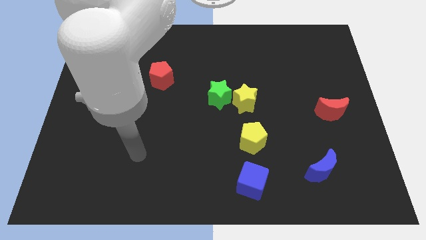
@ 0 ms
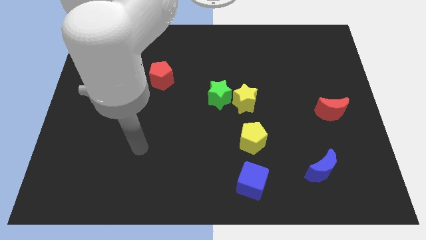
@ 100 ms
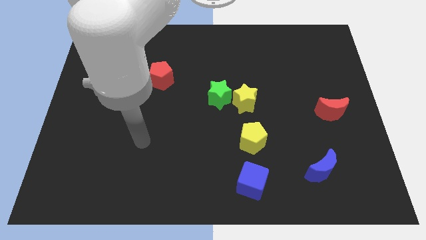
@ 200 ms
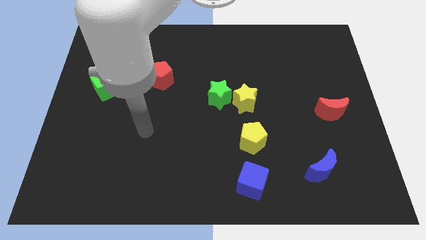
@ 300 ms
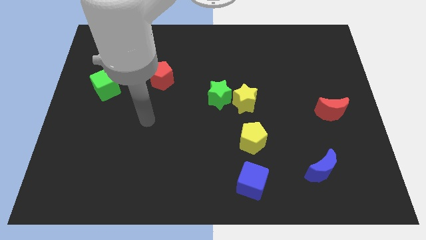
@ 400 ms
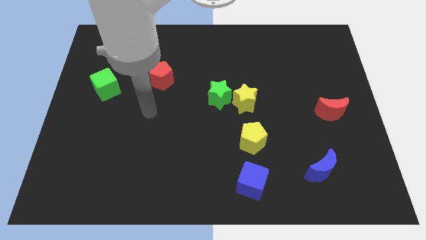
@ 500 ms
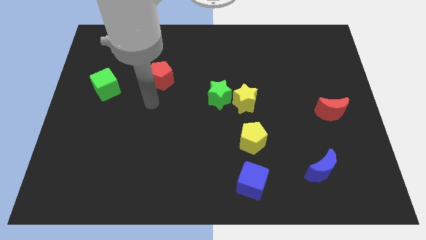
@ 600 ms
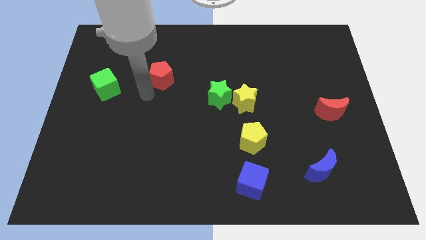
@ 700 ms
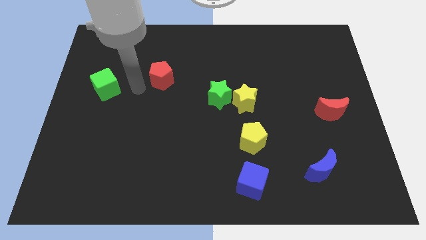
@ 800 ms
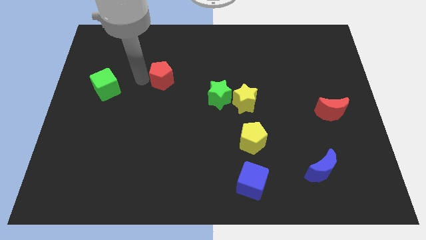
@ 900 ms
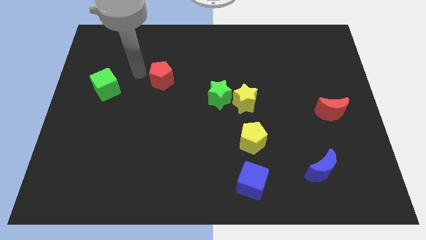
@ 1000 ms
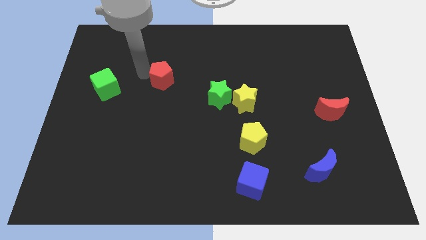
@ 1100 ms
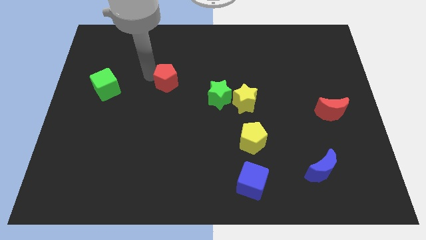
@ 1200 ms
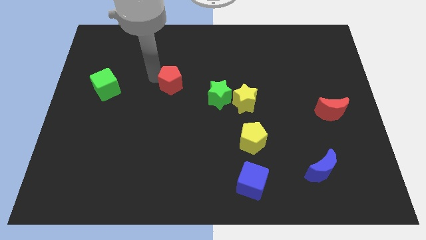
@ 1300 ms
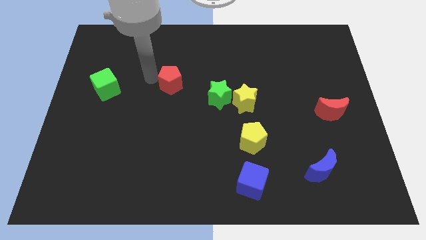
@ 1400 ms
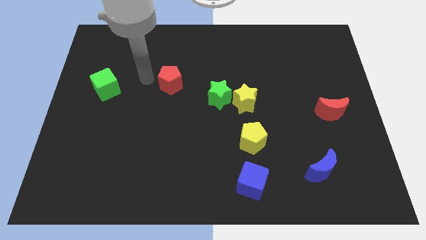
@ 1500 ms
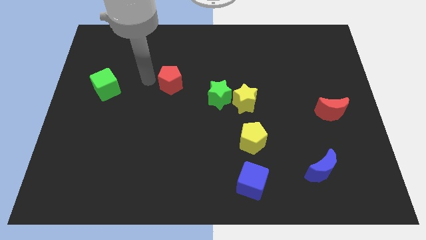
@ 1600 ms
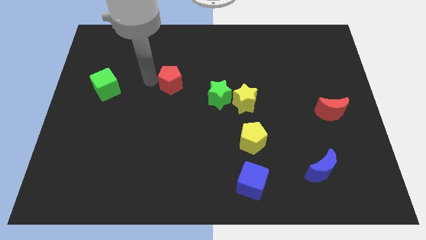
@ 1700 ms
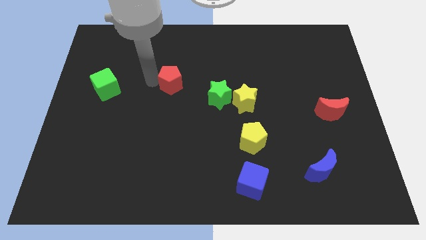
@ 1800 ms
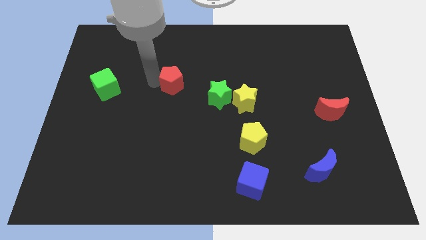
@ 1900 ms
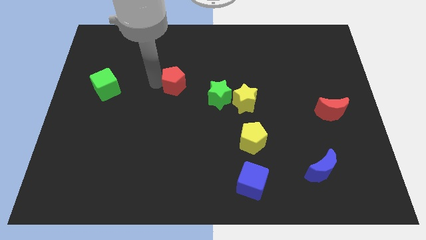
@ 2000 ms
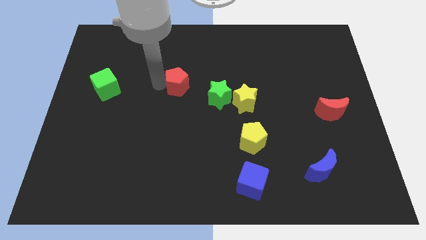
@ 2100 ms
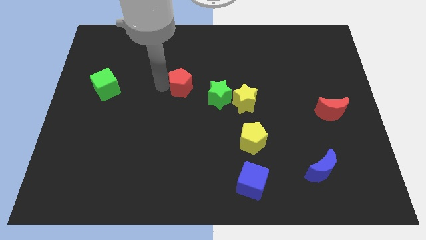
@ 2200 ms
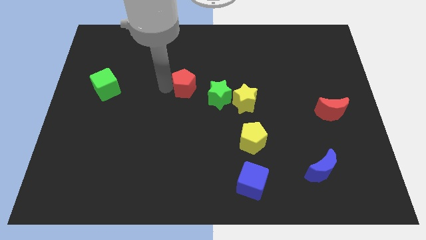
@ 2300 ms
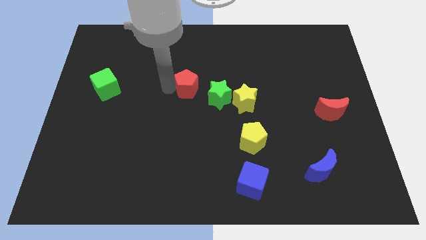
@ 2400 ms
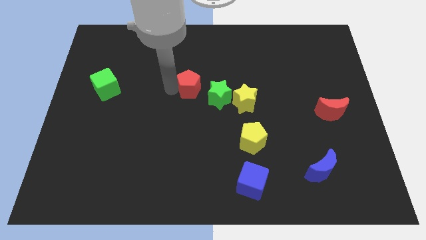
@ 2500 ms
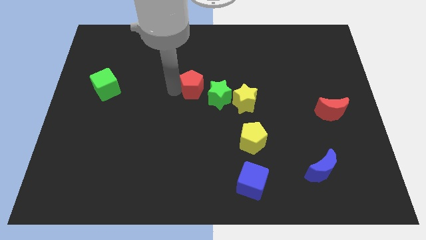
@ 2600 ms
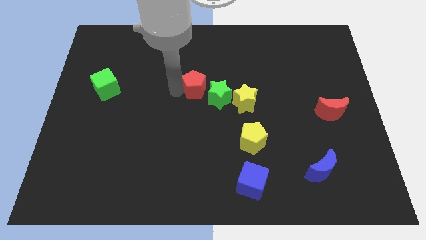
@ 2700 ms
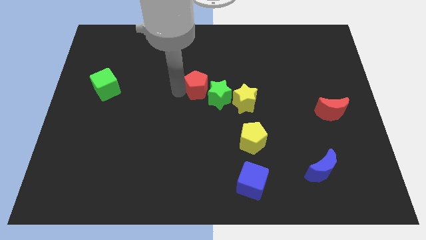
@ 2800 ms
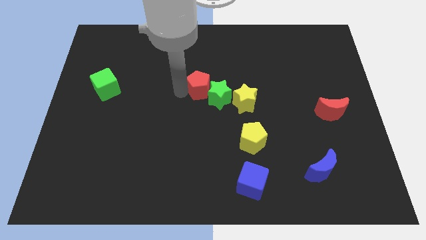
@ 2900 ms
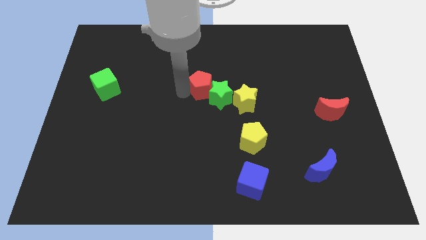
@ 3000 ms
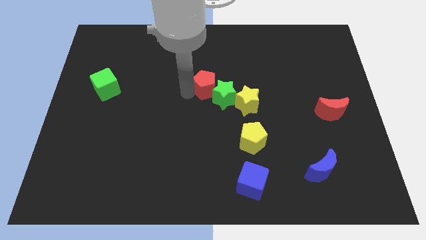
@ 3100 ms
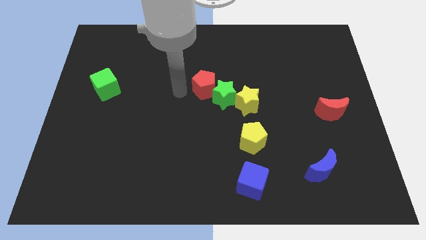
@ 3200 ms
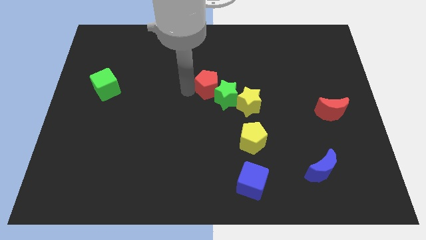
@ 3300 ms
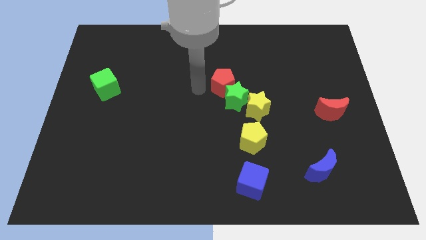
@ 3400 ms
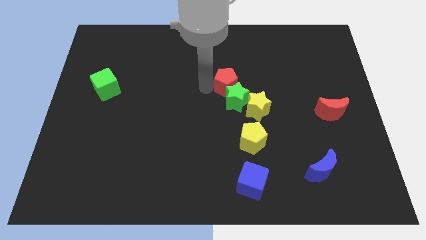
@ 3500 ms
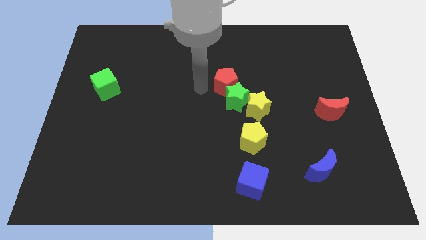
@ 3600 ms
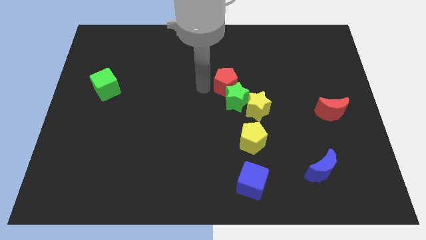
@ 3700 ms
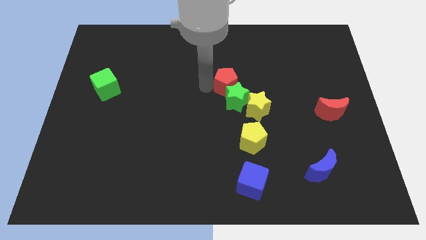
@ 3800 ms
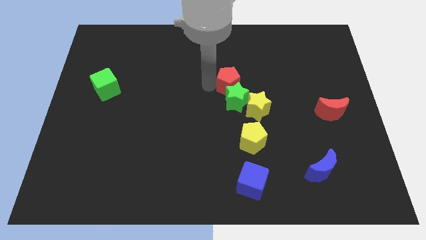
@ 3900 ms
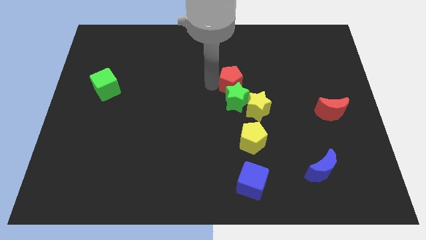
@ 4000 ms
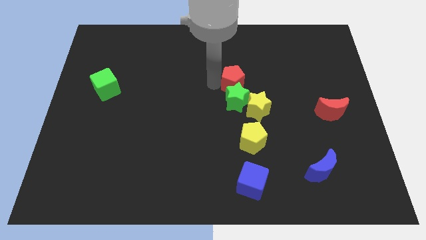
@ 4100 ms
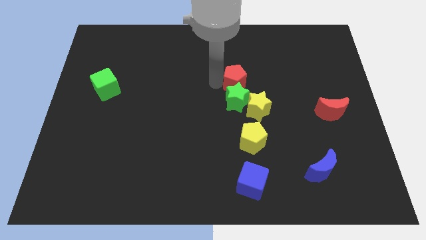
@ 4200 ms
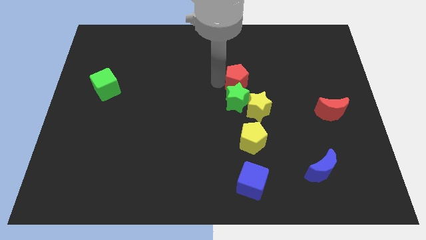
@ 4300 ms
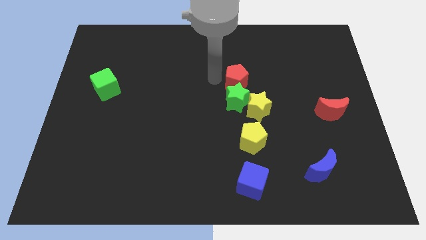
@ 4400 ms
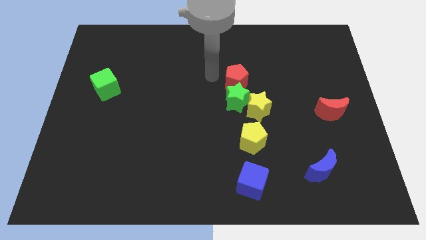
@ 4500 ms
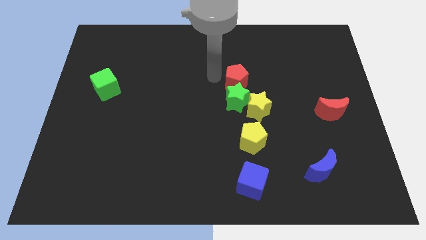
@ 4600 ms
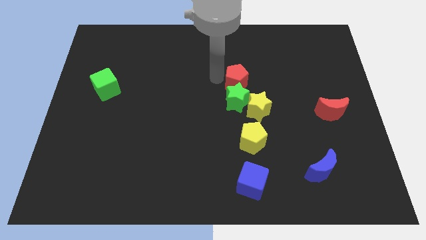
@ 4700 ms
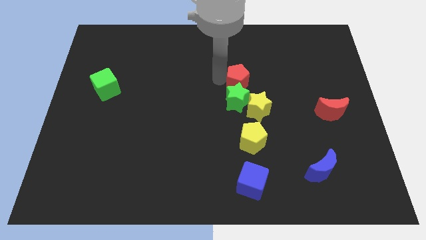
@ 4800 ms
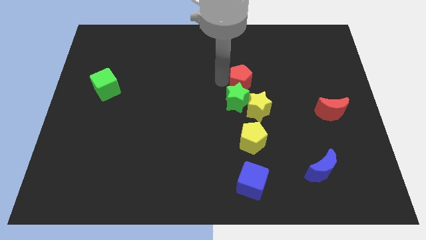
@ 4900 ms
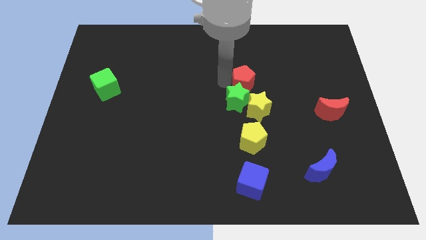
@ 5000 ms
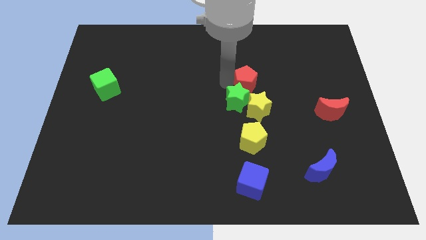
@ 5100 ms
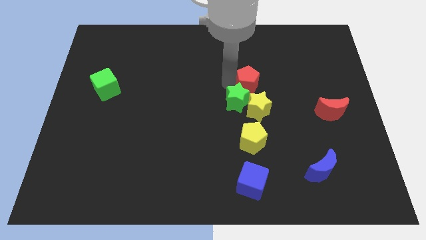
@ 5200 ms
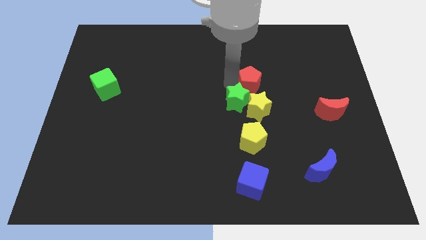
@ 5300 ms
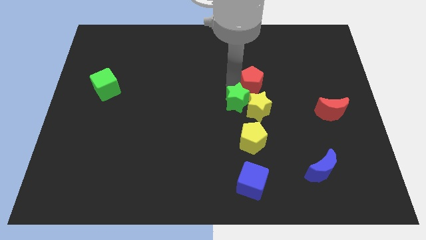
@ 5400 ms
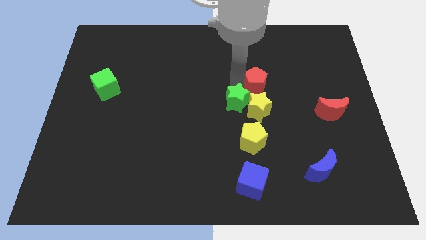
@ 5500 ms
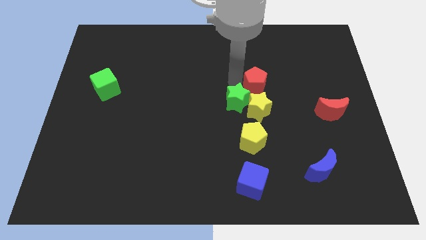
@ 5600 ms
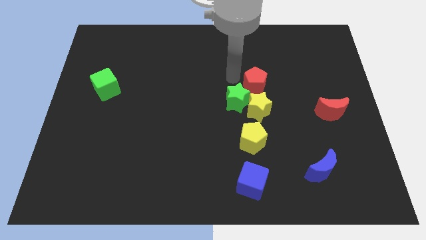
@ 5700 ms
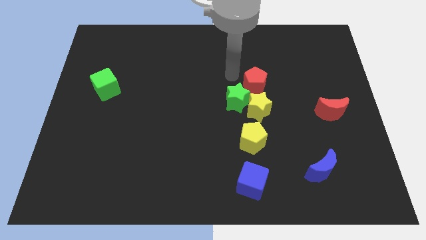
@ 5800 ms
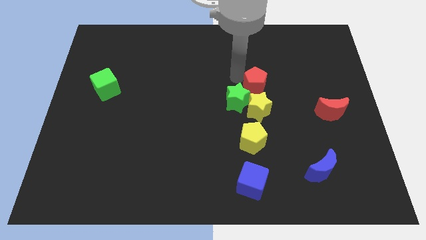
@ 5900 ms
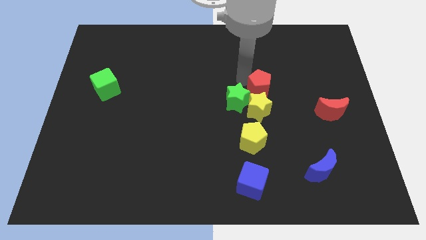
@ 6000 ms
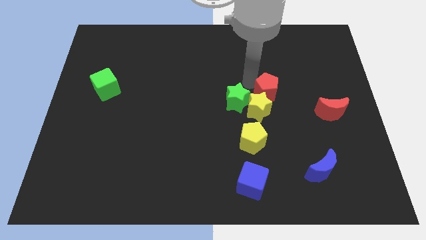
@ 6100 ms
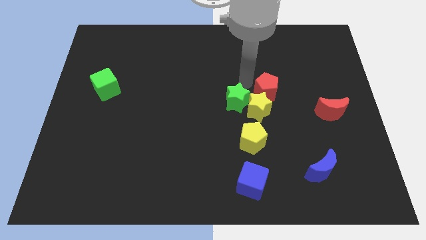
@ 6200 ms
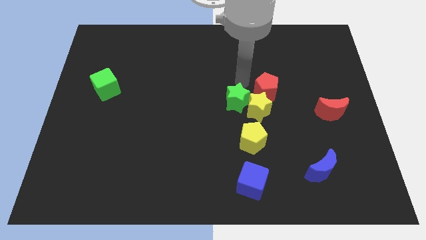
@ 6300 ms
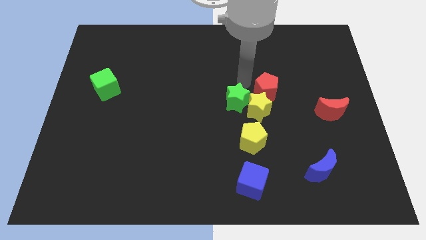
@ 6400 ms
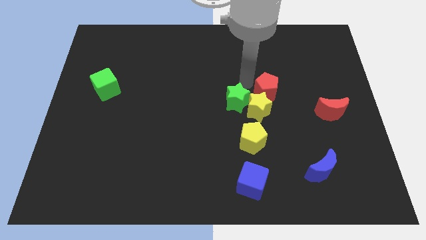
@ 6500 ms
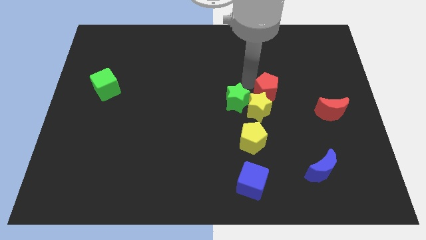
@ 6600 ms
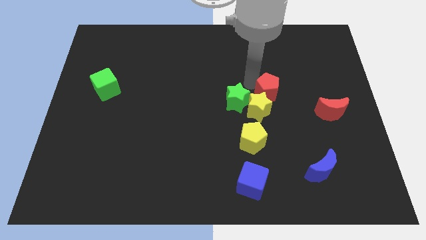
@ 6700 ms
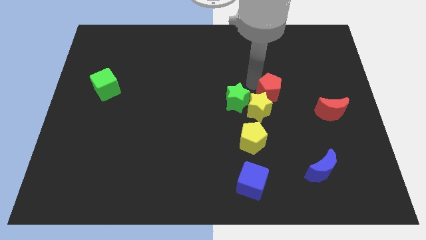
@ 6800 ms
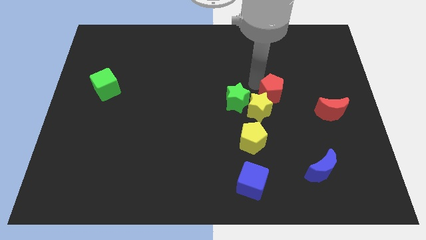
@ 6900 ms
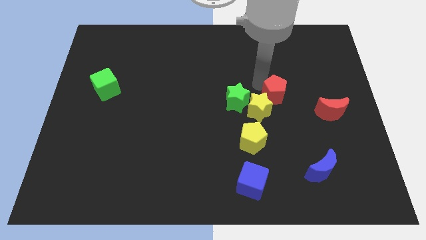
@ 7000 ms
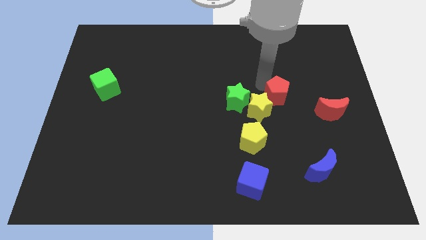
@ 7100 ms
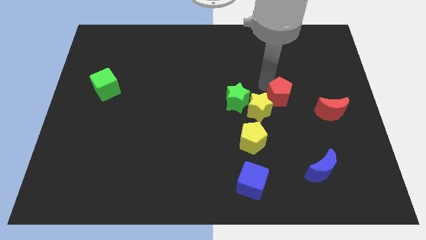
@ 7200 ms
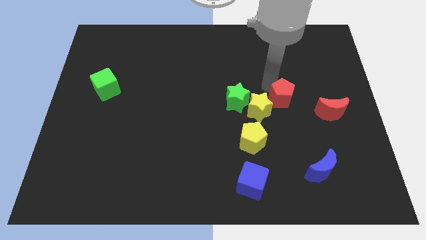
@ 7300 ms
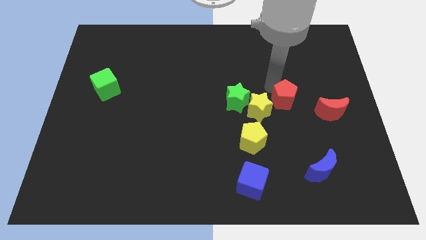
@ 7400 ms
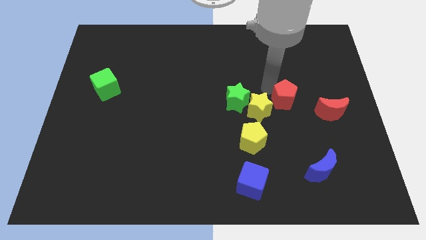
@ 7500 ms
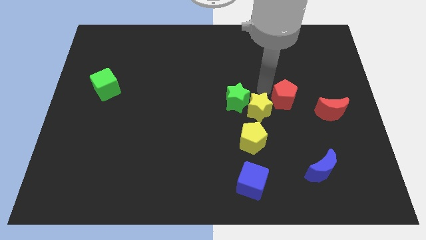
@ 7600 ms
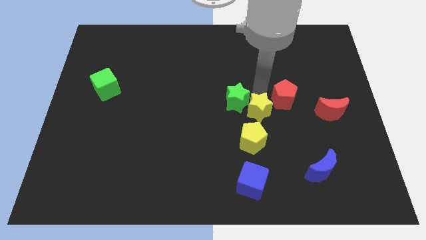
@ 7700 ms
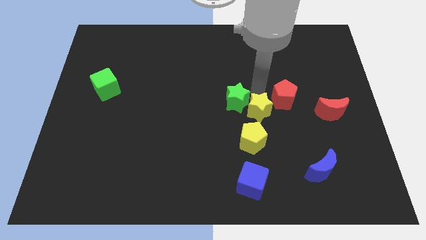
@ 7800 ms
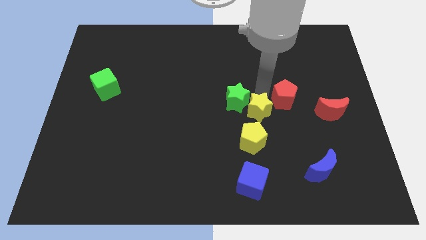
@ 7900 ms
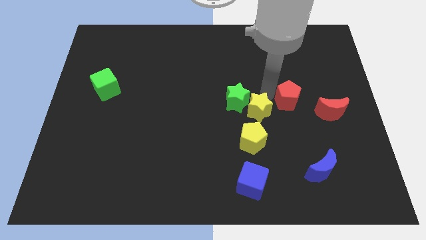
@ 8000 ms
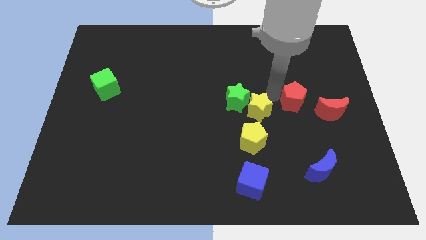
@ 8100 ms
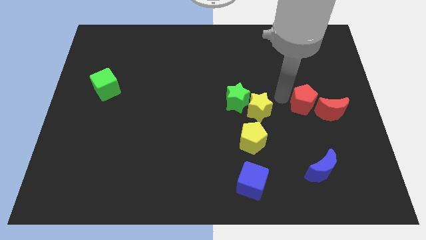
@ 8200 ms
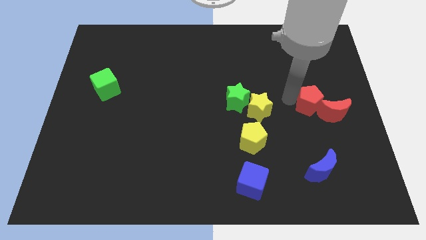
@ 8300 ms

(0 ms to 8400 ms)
move the red pentagon to the red moon
